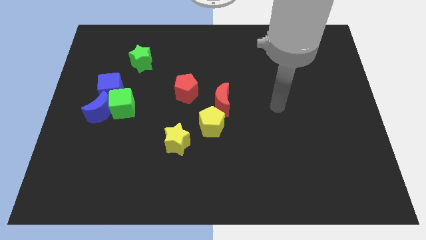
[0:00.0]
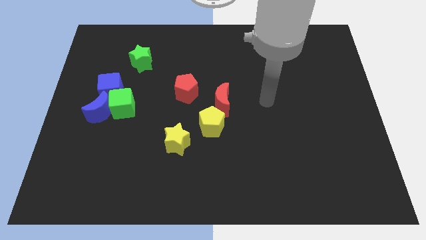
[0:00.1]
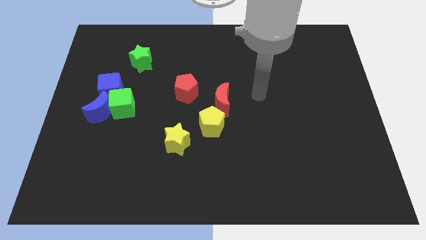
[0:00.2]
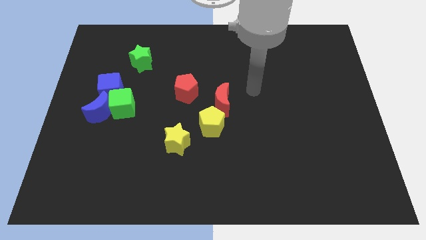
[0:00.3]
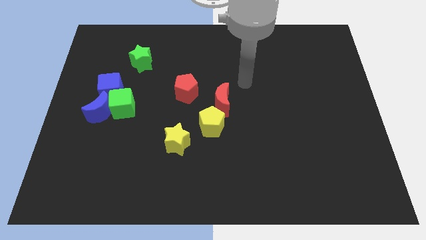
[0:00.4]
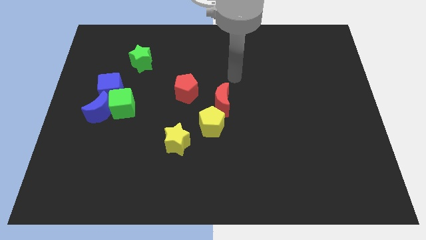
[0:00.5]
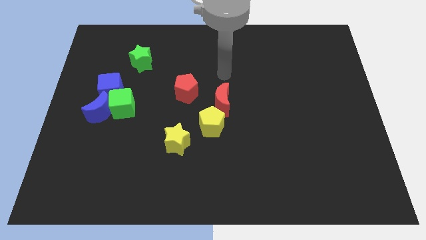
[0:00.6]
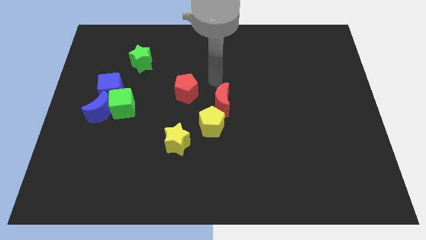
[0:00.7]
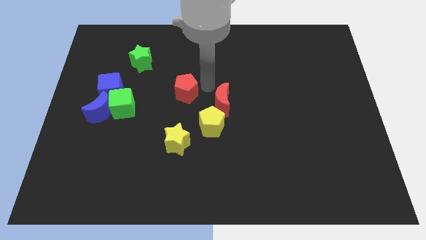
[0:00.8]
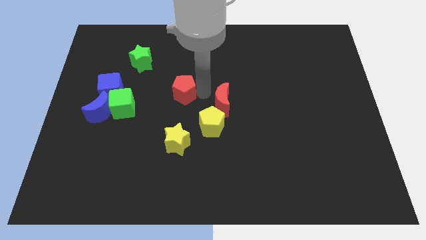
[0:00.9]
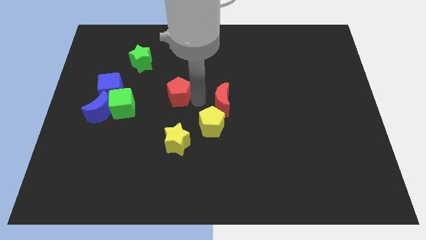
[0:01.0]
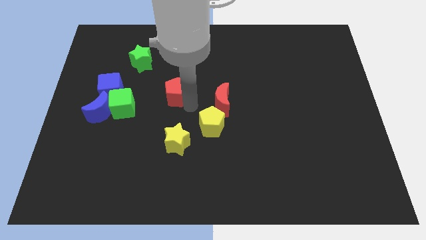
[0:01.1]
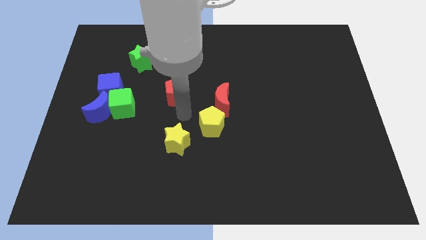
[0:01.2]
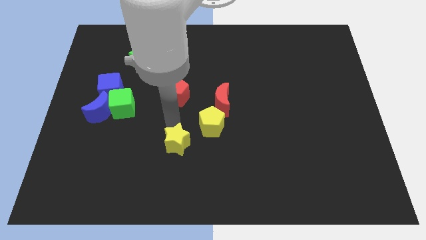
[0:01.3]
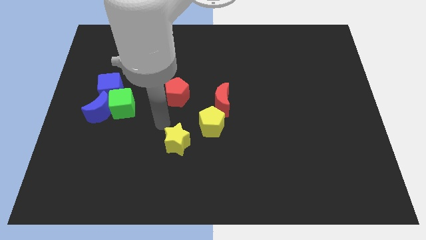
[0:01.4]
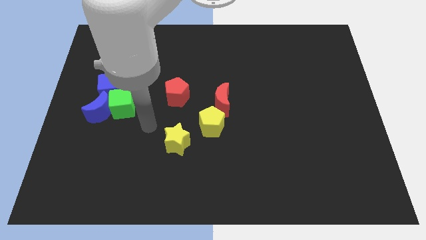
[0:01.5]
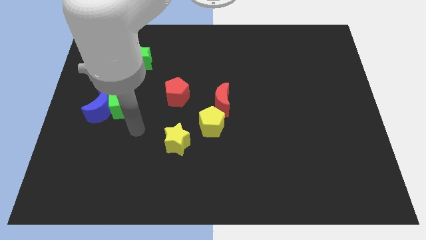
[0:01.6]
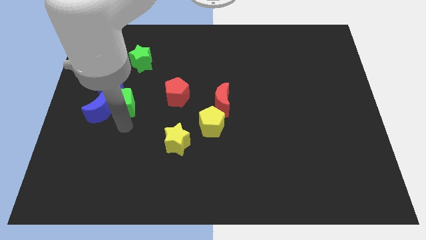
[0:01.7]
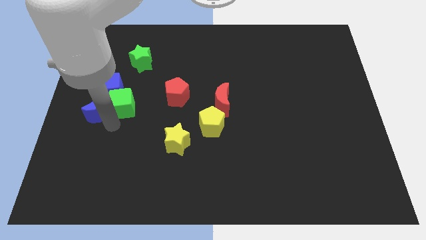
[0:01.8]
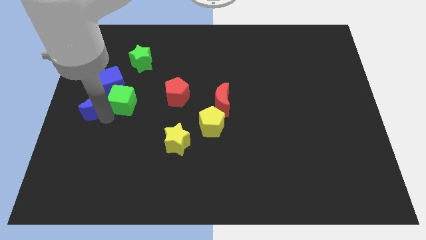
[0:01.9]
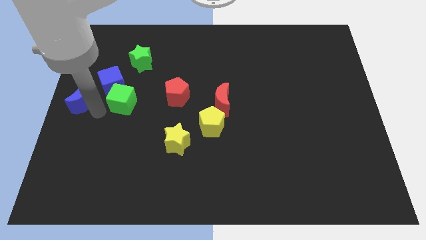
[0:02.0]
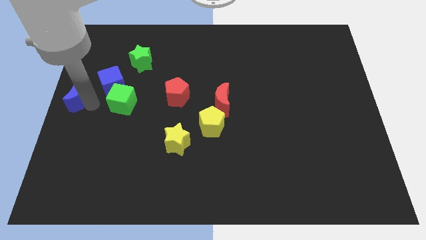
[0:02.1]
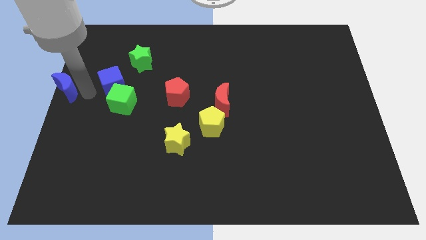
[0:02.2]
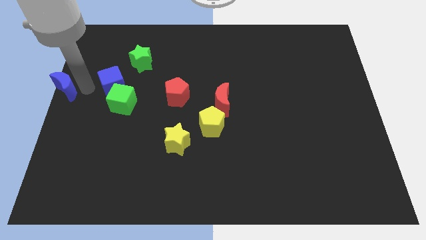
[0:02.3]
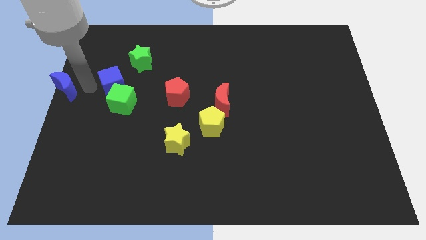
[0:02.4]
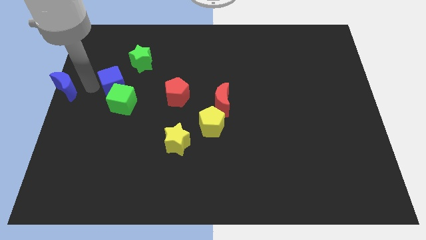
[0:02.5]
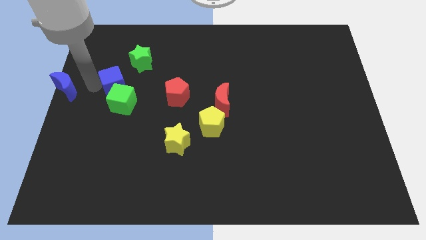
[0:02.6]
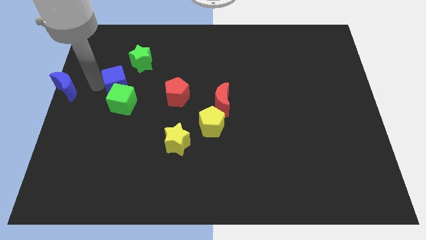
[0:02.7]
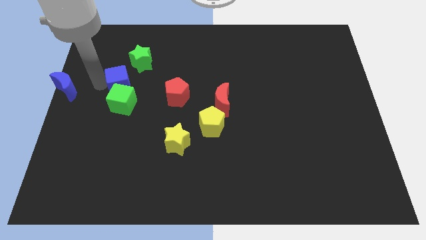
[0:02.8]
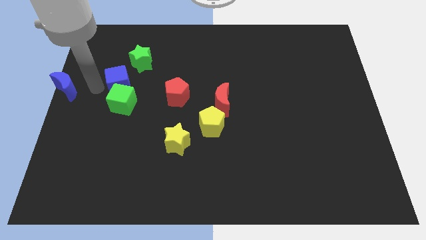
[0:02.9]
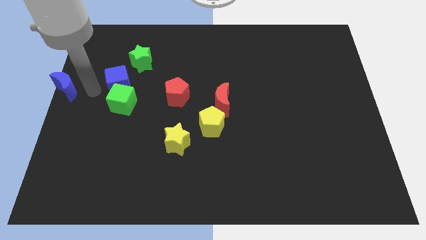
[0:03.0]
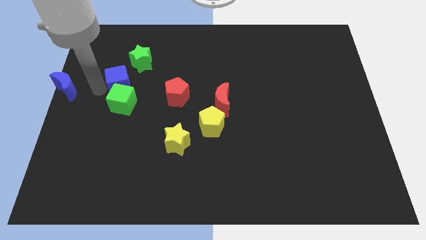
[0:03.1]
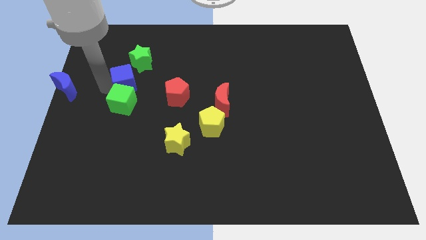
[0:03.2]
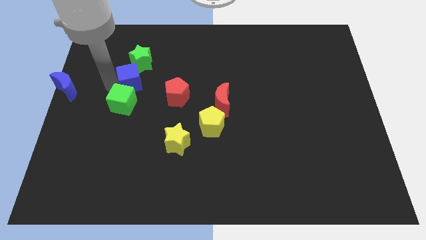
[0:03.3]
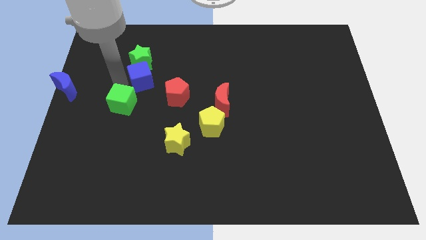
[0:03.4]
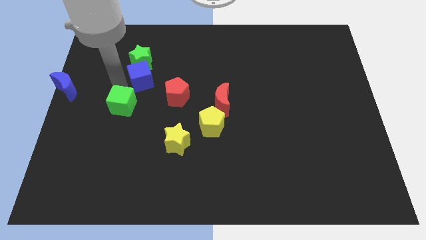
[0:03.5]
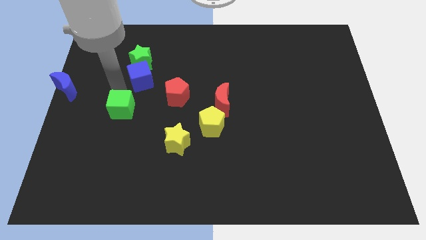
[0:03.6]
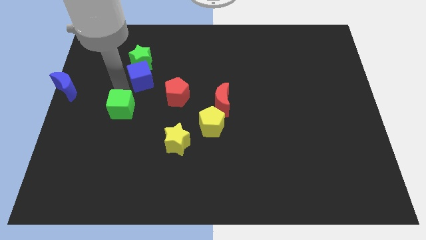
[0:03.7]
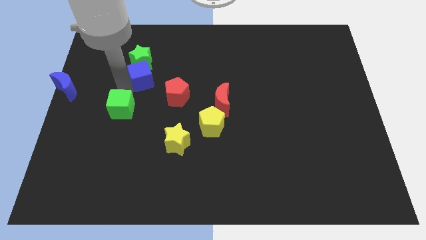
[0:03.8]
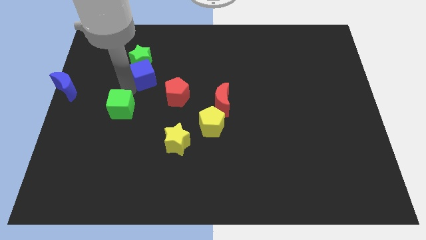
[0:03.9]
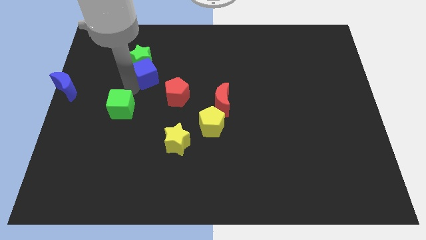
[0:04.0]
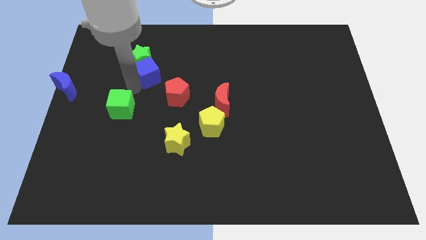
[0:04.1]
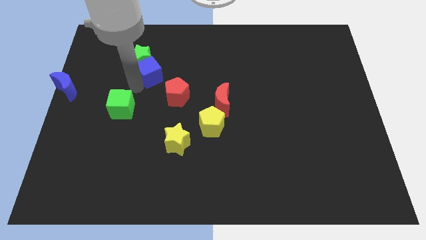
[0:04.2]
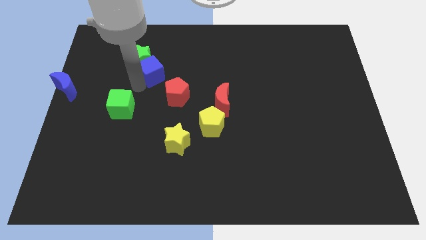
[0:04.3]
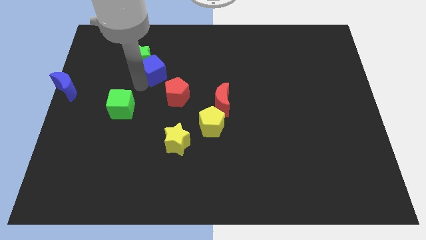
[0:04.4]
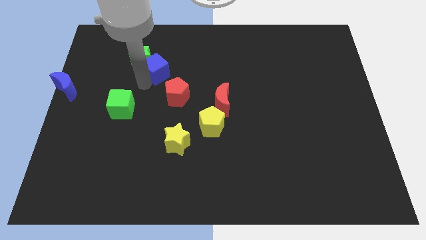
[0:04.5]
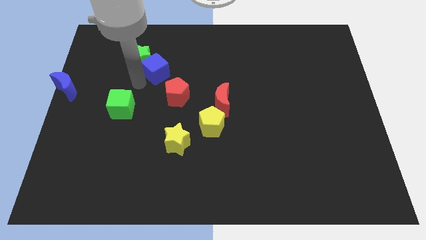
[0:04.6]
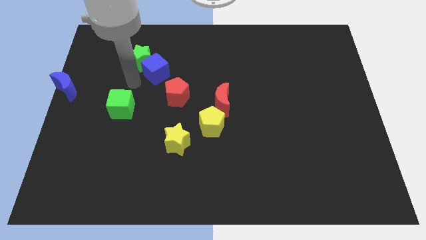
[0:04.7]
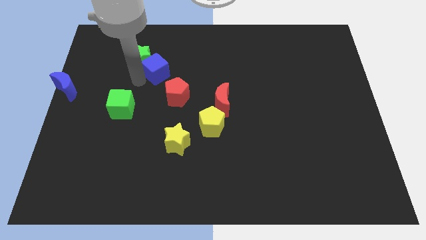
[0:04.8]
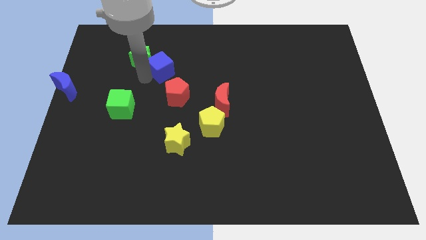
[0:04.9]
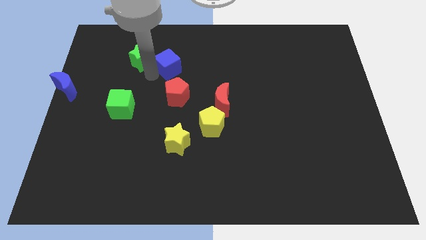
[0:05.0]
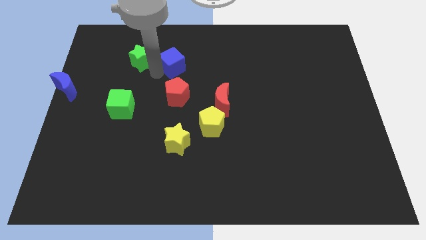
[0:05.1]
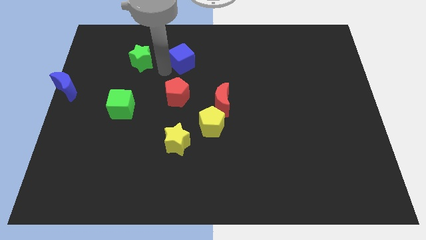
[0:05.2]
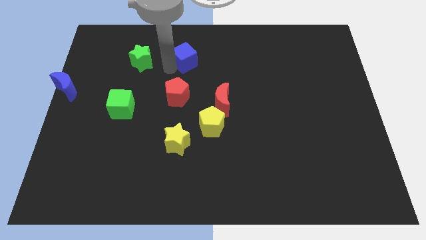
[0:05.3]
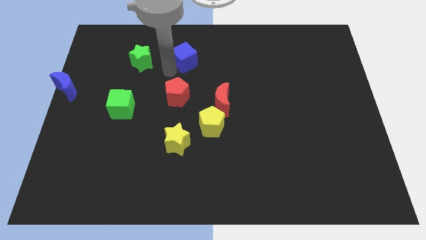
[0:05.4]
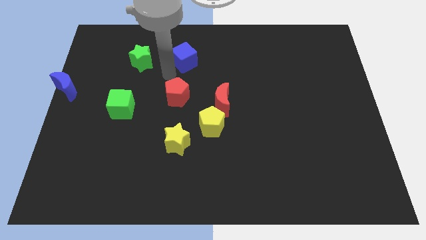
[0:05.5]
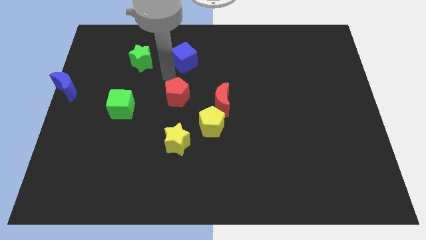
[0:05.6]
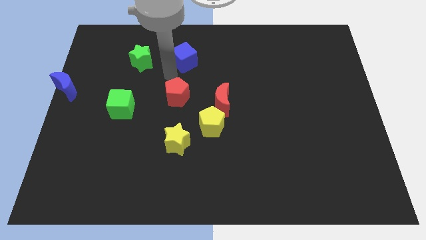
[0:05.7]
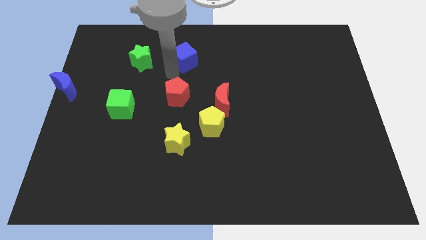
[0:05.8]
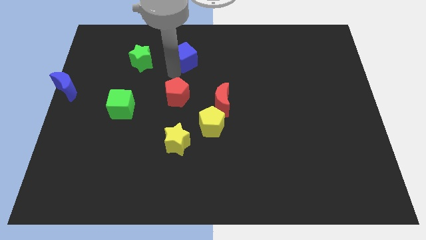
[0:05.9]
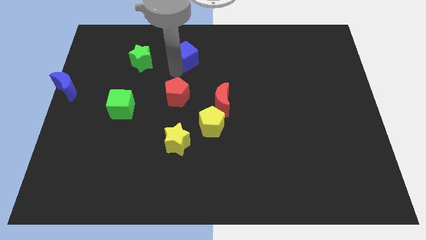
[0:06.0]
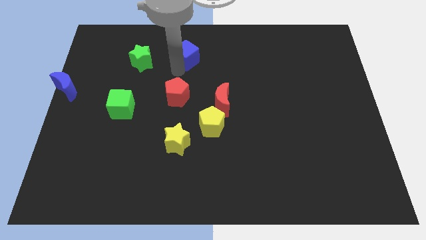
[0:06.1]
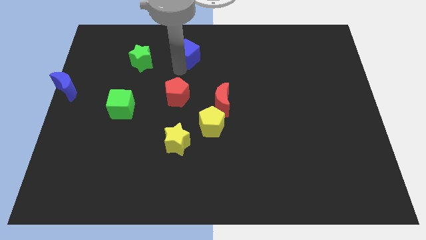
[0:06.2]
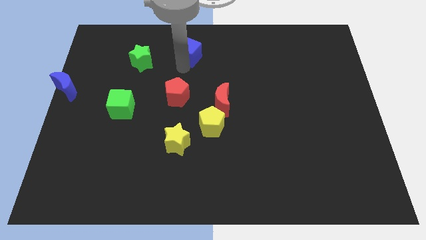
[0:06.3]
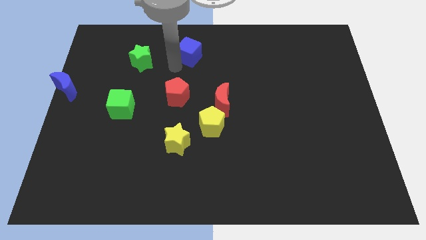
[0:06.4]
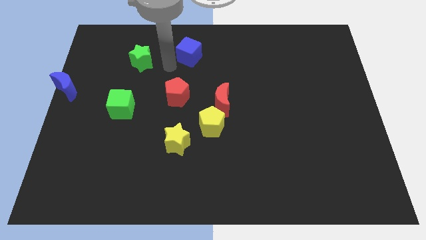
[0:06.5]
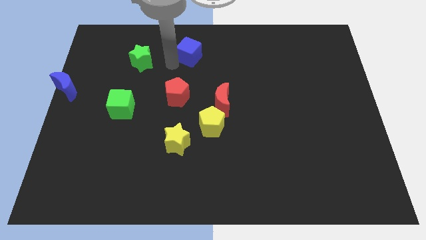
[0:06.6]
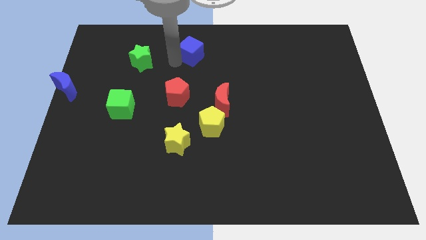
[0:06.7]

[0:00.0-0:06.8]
move the blue cube to the top
